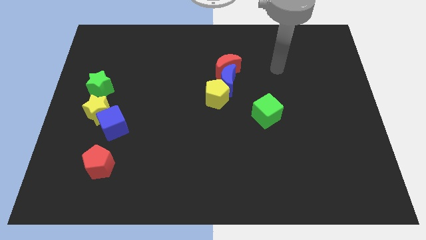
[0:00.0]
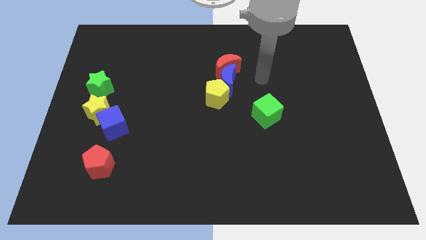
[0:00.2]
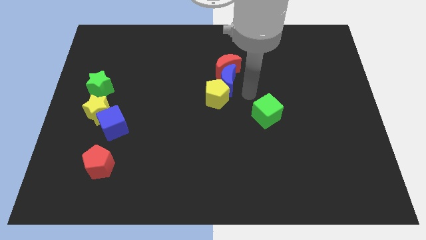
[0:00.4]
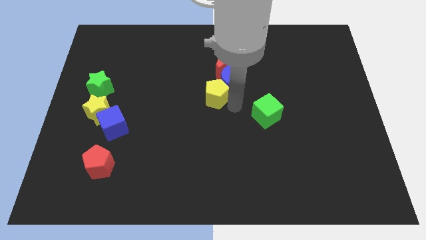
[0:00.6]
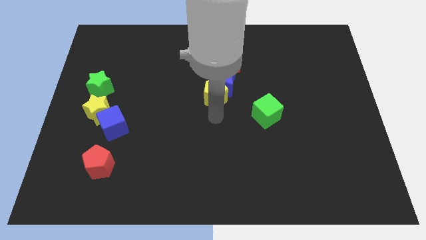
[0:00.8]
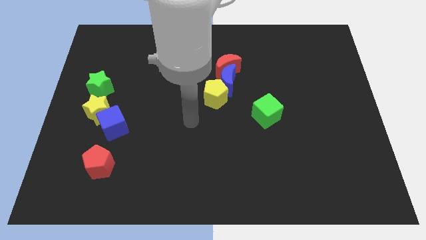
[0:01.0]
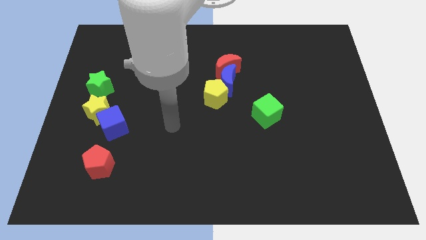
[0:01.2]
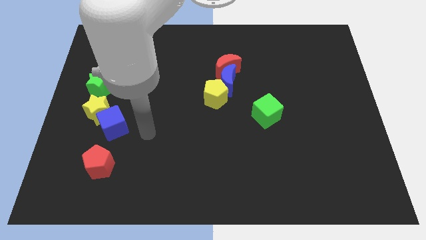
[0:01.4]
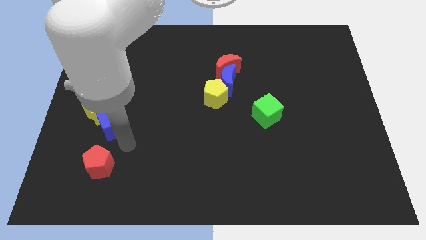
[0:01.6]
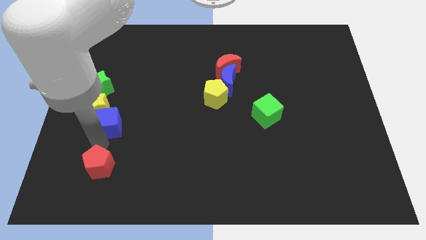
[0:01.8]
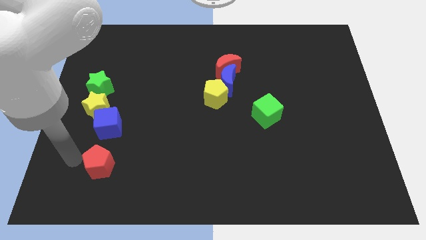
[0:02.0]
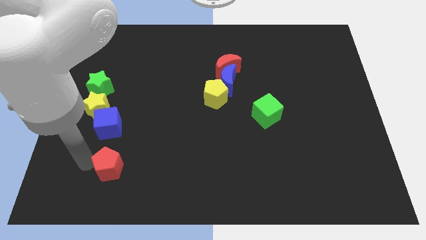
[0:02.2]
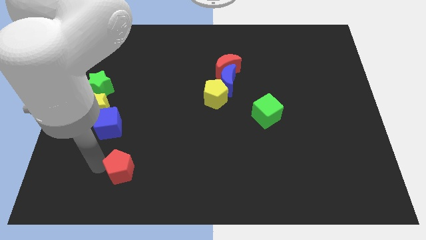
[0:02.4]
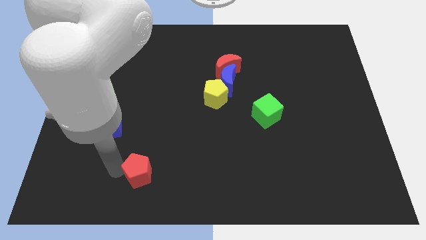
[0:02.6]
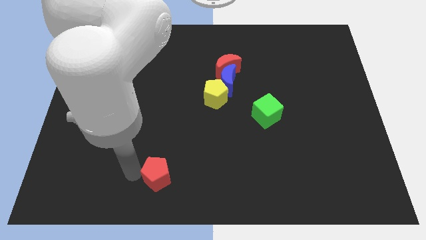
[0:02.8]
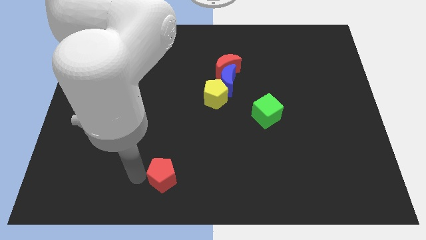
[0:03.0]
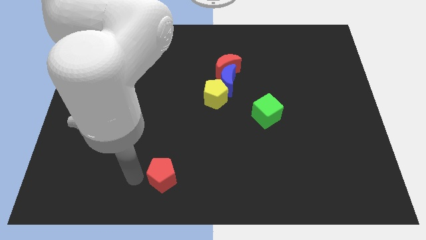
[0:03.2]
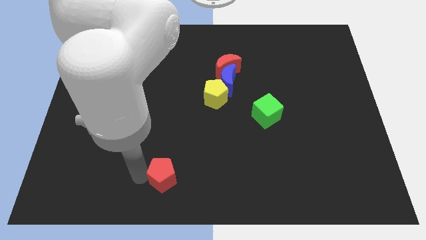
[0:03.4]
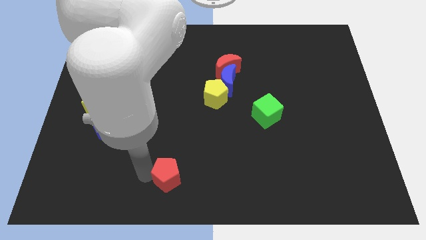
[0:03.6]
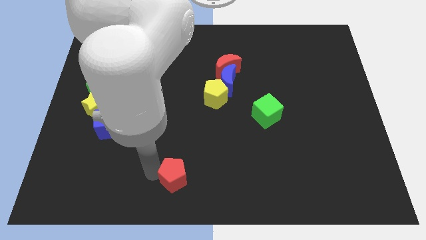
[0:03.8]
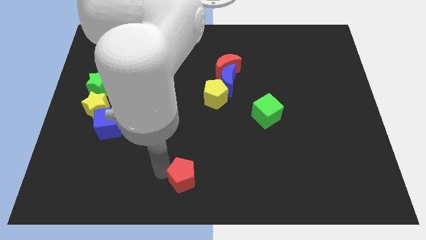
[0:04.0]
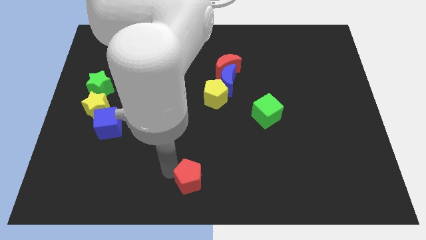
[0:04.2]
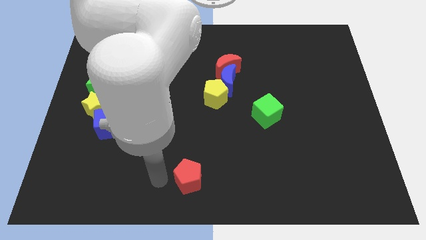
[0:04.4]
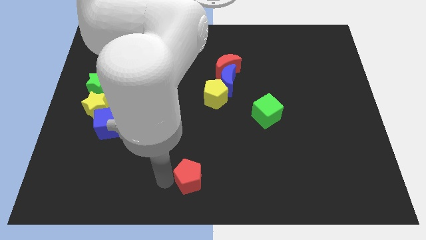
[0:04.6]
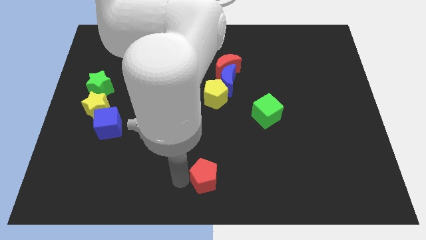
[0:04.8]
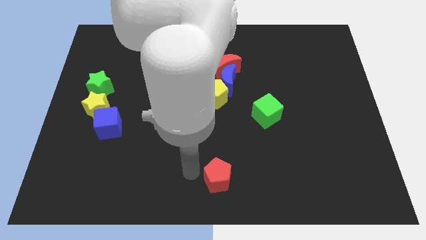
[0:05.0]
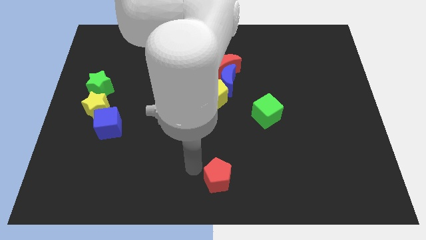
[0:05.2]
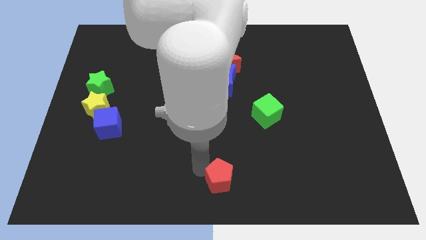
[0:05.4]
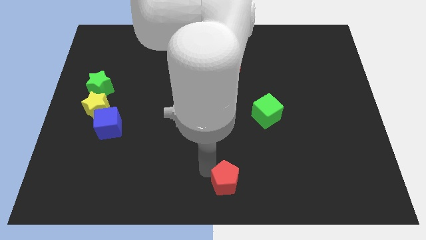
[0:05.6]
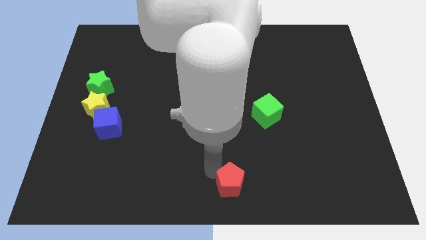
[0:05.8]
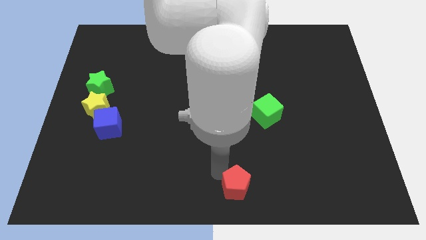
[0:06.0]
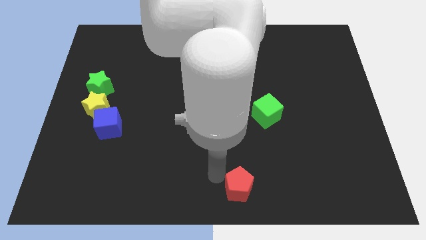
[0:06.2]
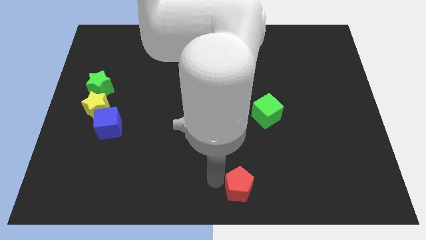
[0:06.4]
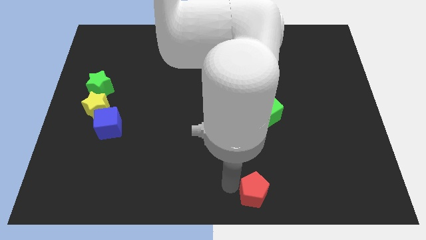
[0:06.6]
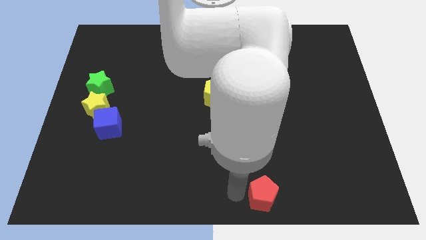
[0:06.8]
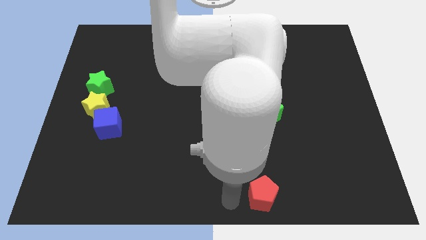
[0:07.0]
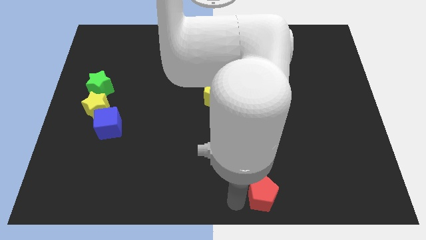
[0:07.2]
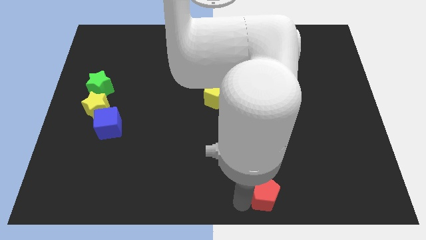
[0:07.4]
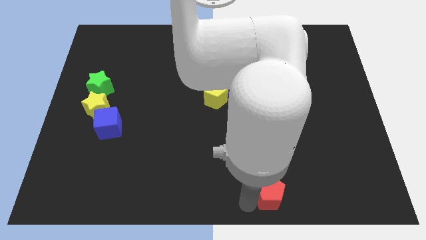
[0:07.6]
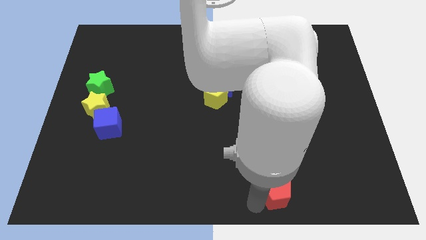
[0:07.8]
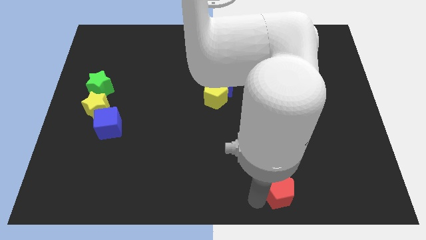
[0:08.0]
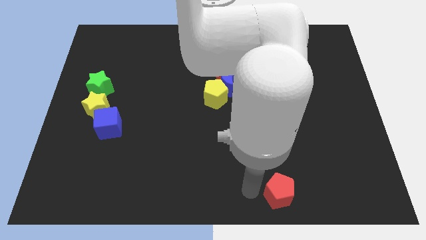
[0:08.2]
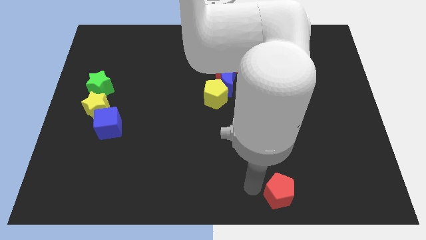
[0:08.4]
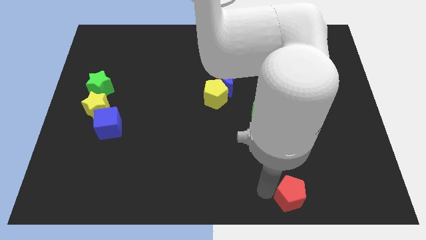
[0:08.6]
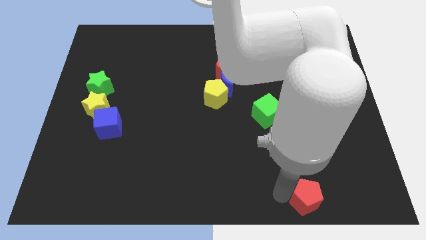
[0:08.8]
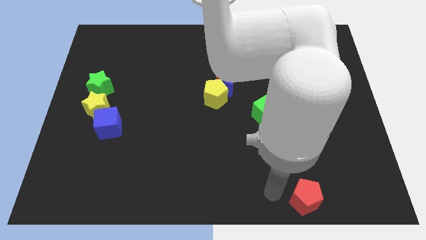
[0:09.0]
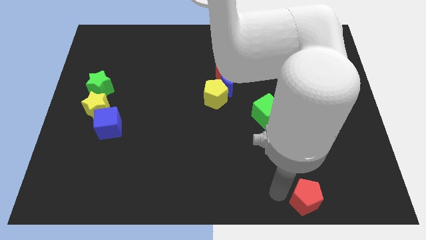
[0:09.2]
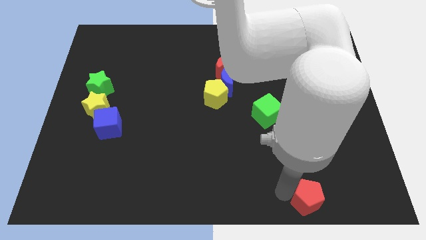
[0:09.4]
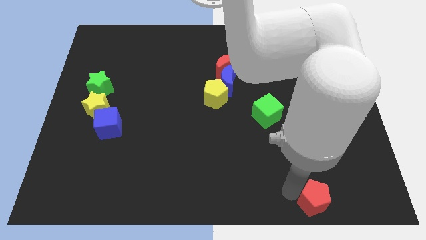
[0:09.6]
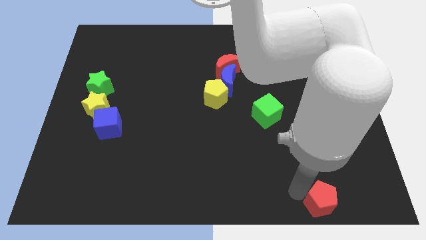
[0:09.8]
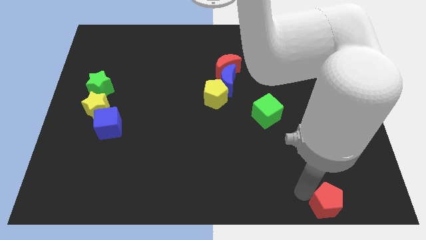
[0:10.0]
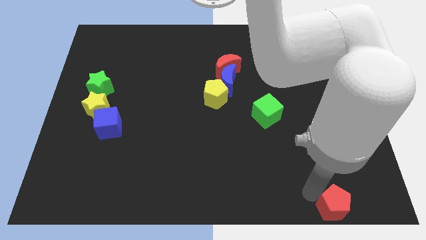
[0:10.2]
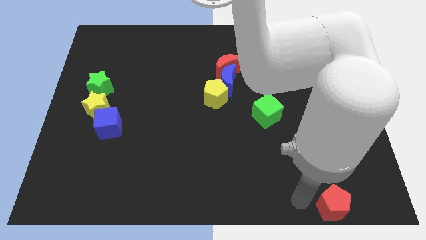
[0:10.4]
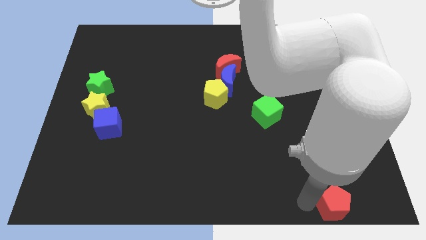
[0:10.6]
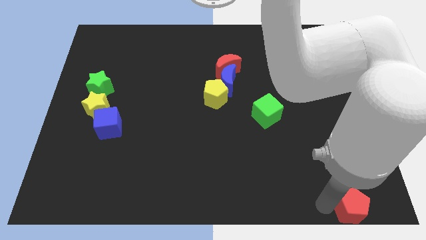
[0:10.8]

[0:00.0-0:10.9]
put the red pentagon to the bottom right
